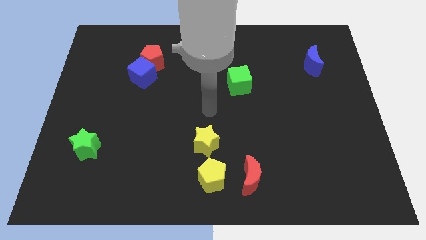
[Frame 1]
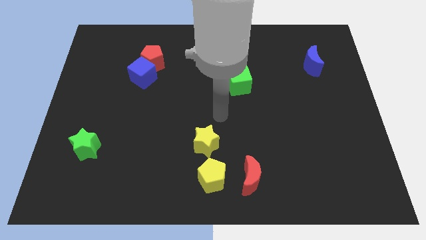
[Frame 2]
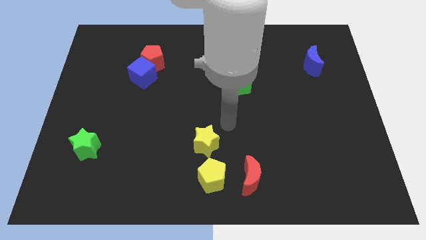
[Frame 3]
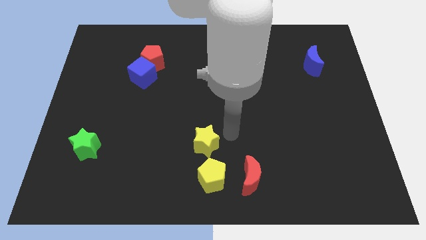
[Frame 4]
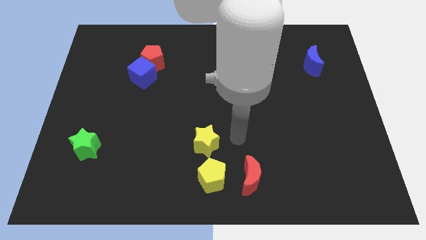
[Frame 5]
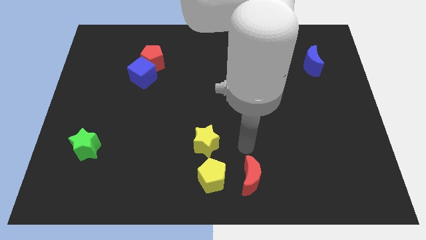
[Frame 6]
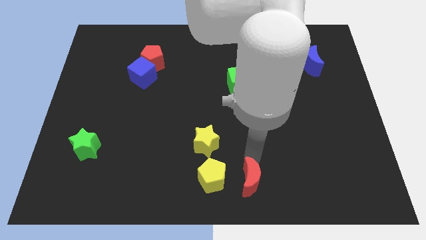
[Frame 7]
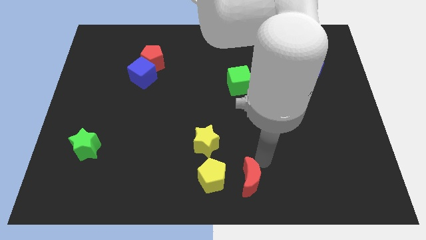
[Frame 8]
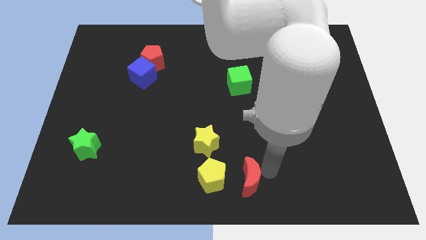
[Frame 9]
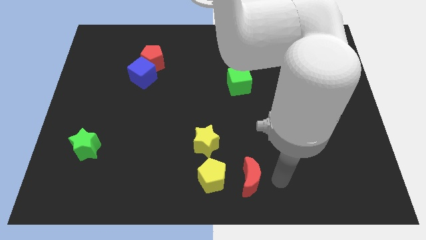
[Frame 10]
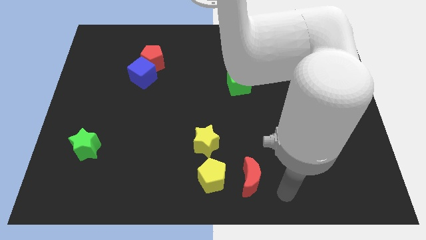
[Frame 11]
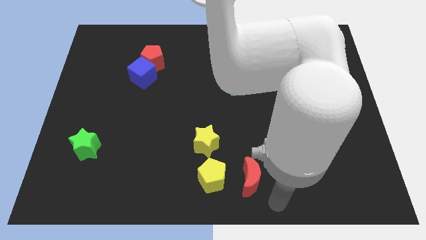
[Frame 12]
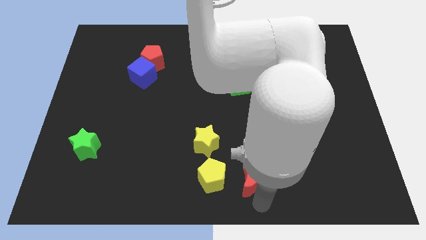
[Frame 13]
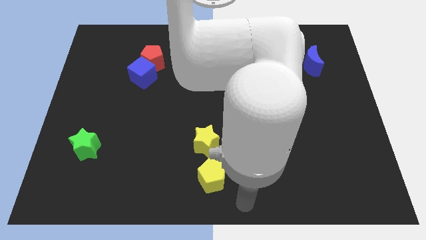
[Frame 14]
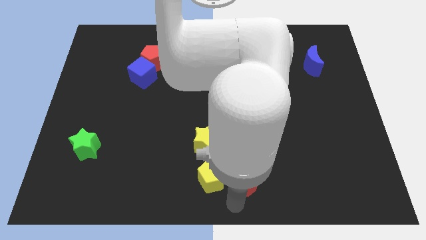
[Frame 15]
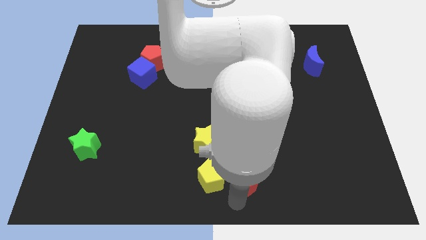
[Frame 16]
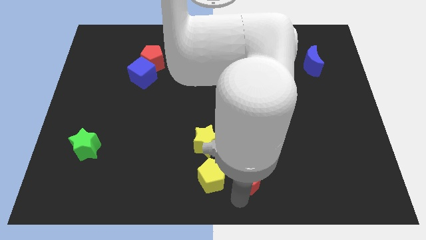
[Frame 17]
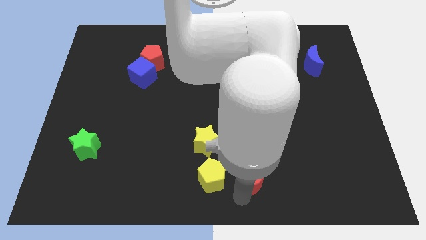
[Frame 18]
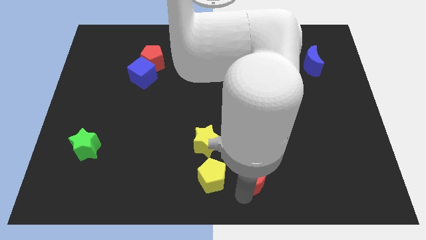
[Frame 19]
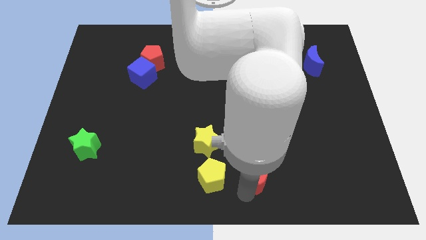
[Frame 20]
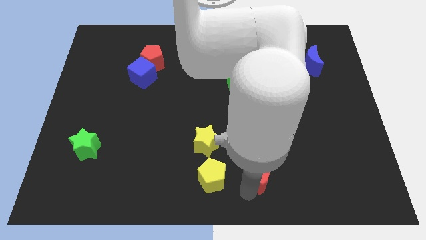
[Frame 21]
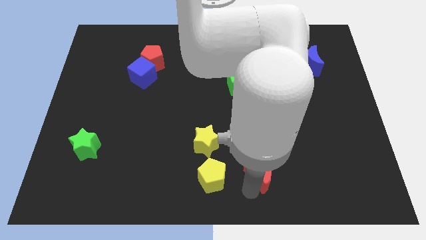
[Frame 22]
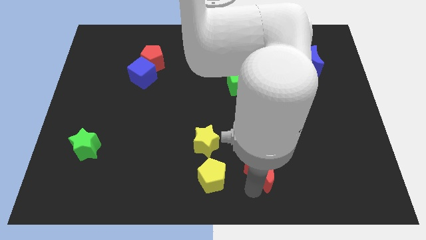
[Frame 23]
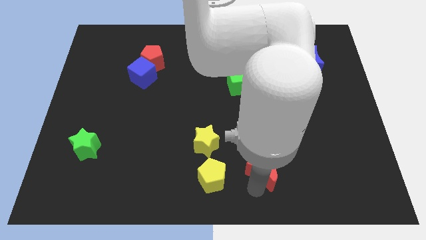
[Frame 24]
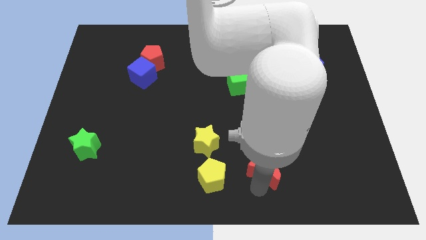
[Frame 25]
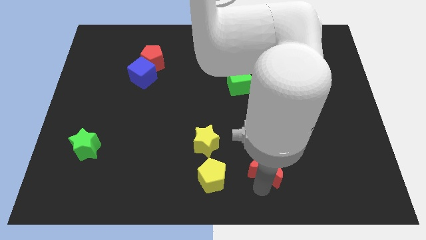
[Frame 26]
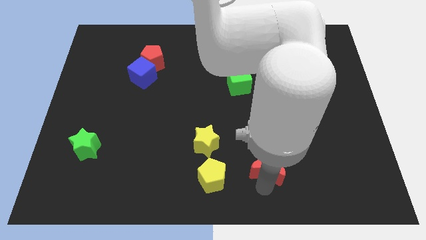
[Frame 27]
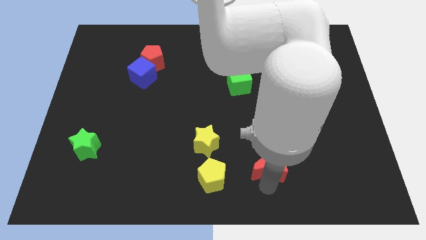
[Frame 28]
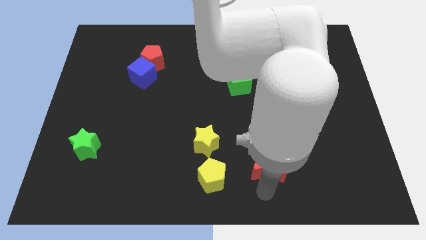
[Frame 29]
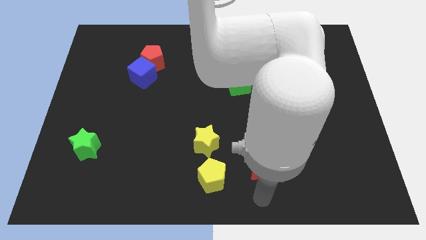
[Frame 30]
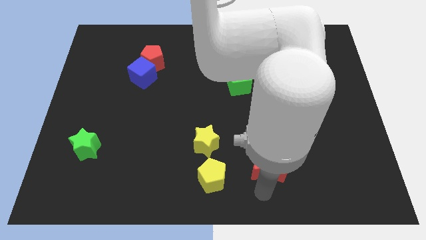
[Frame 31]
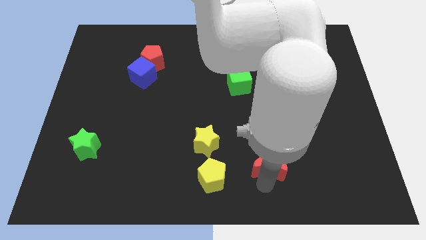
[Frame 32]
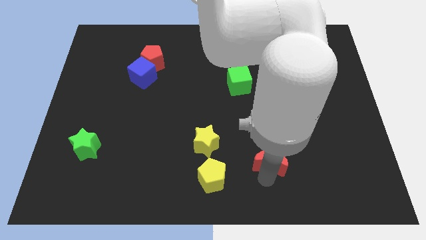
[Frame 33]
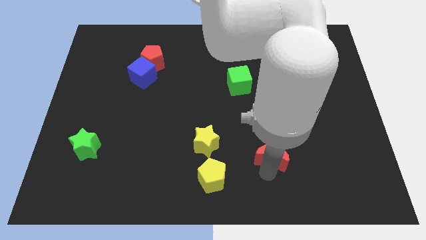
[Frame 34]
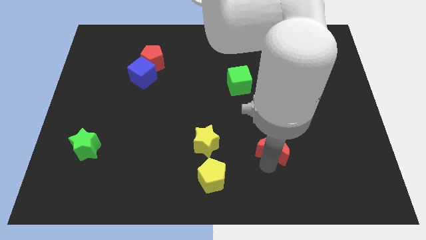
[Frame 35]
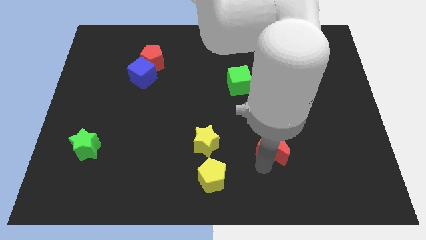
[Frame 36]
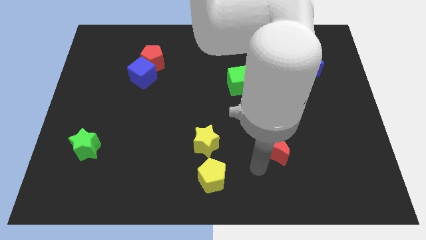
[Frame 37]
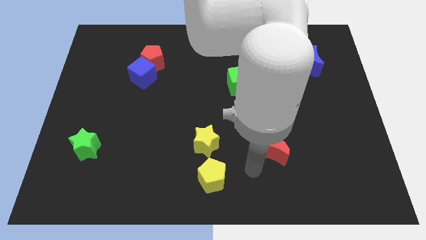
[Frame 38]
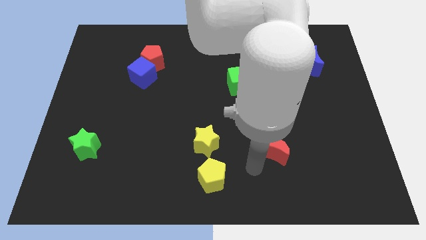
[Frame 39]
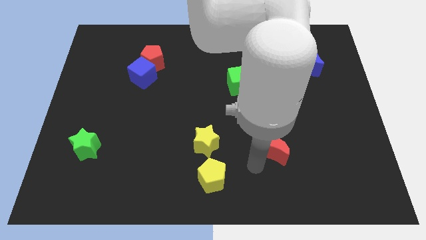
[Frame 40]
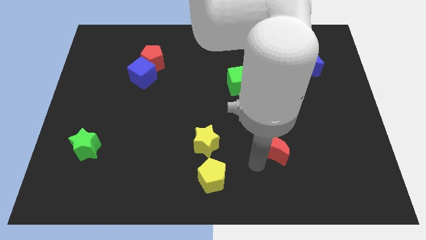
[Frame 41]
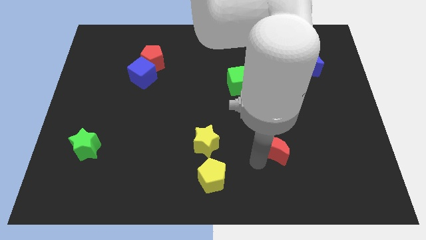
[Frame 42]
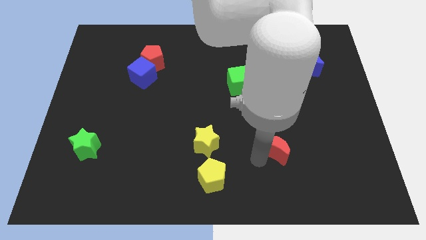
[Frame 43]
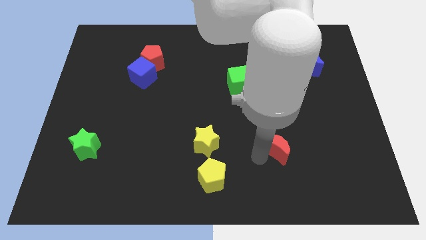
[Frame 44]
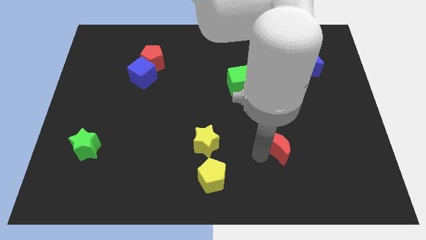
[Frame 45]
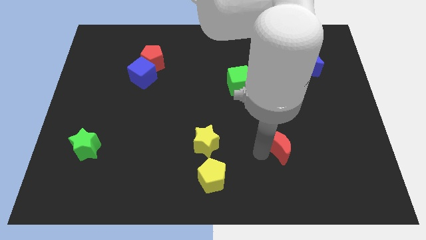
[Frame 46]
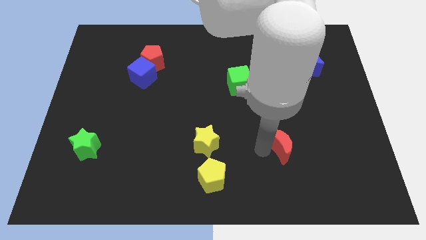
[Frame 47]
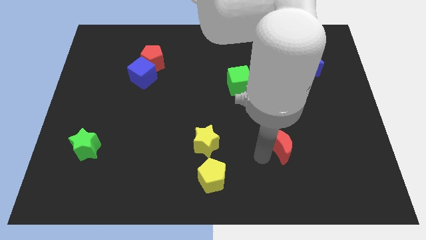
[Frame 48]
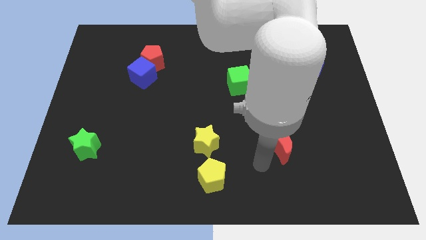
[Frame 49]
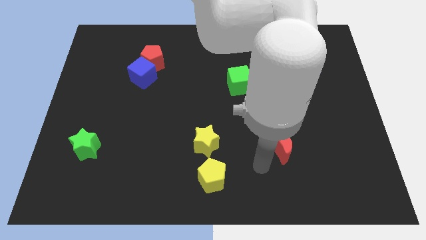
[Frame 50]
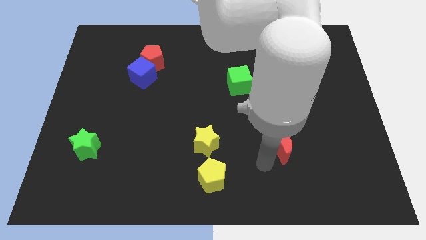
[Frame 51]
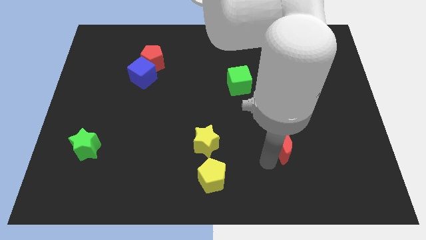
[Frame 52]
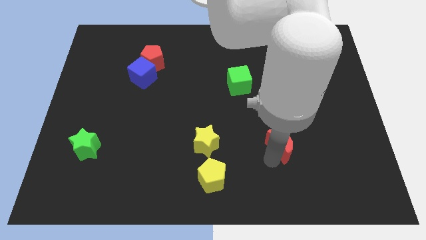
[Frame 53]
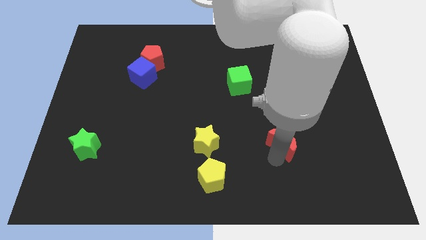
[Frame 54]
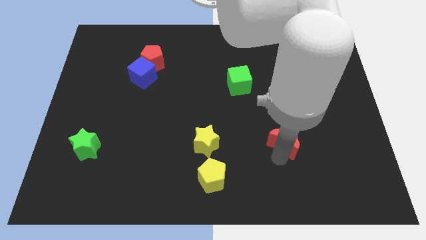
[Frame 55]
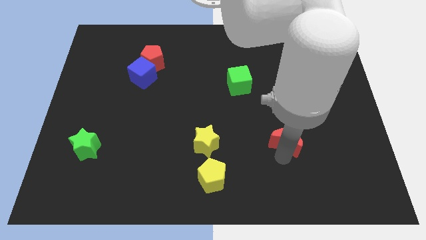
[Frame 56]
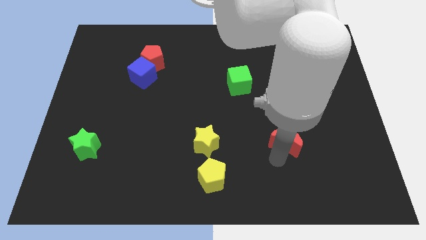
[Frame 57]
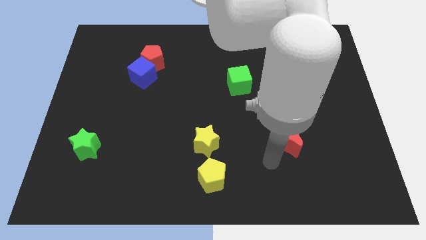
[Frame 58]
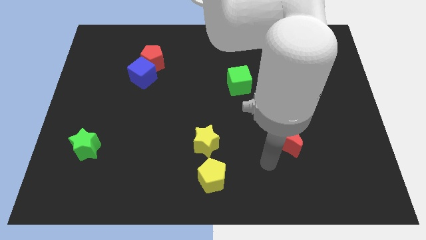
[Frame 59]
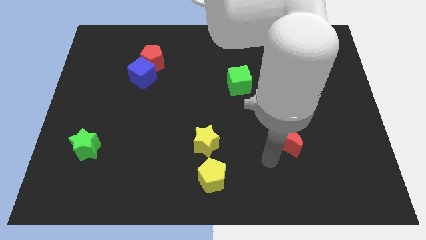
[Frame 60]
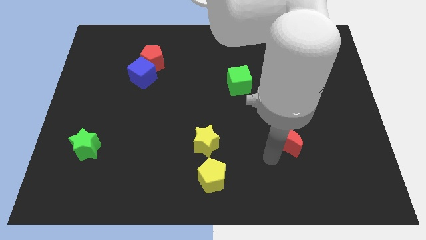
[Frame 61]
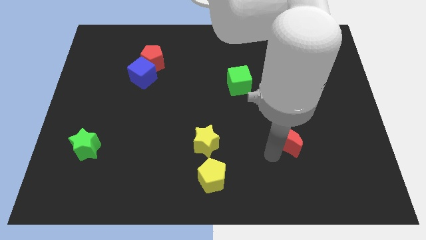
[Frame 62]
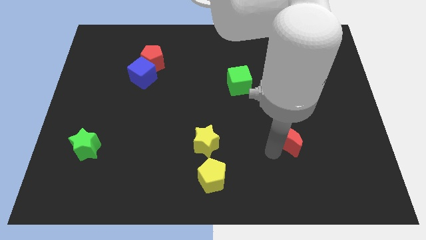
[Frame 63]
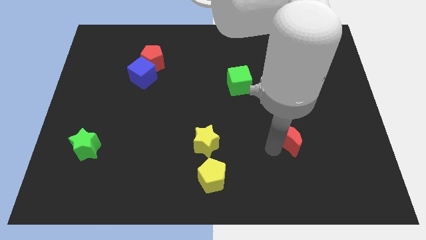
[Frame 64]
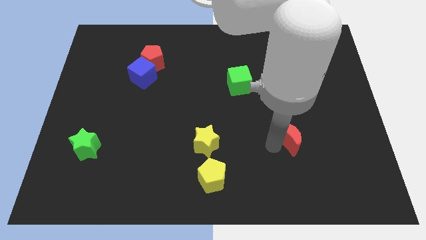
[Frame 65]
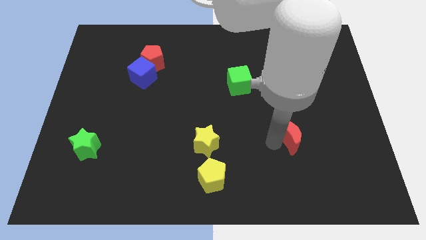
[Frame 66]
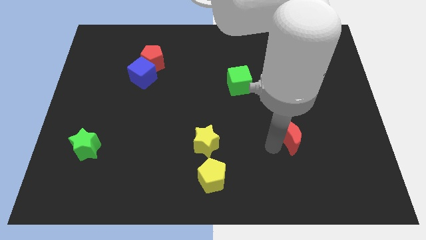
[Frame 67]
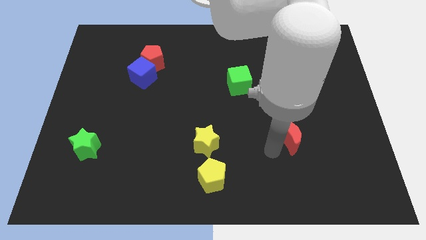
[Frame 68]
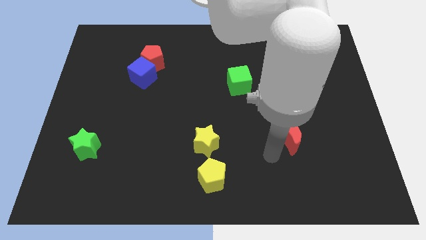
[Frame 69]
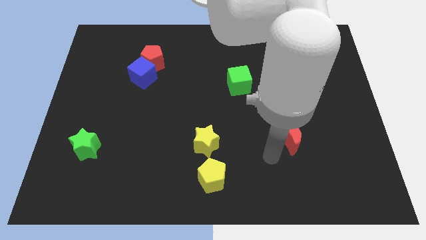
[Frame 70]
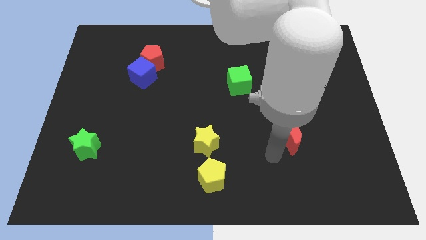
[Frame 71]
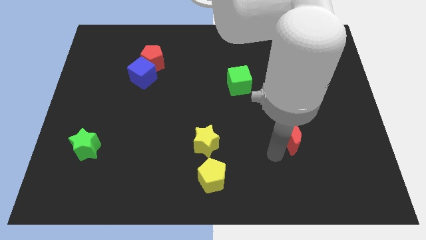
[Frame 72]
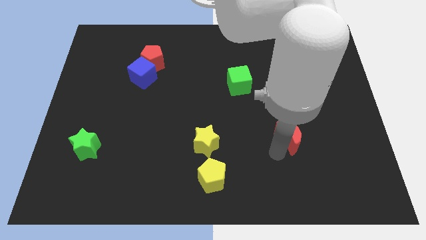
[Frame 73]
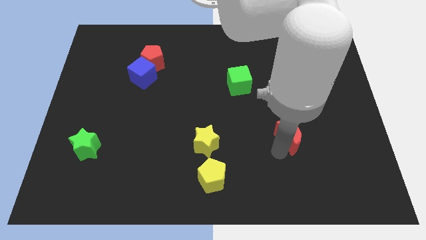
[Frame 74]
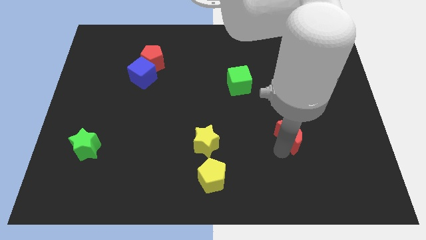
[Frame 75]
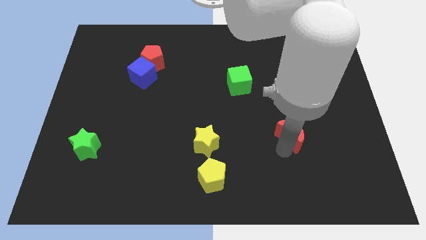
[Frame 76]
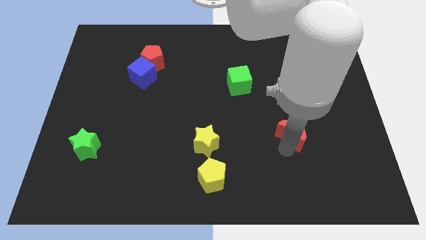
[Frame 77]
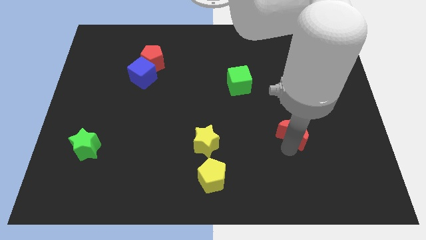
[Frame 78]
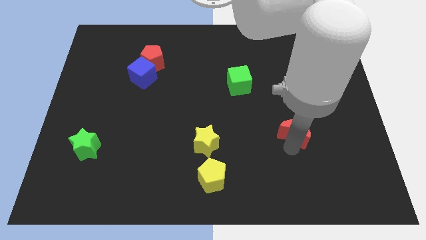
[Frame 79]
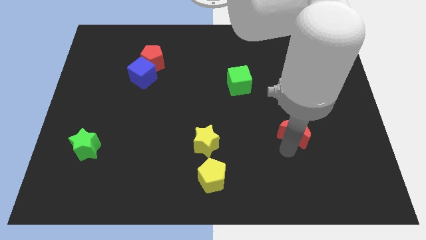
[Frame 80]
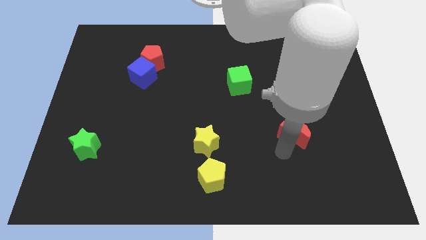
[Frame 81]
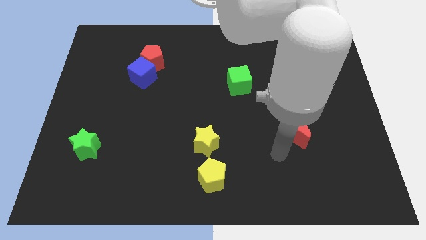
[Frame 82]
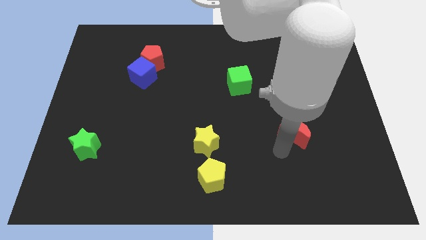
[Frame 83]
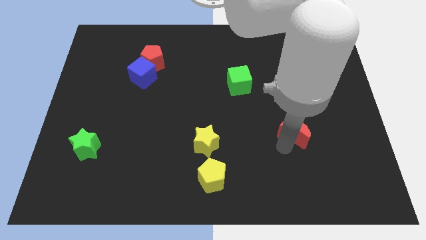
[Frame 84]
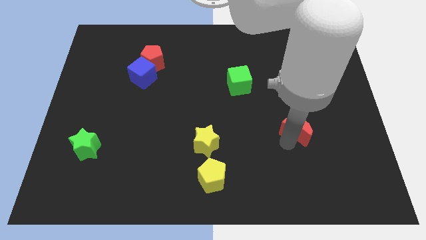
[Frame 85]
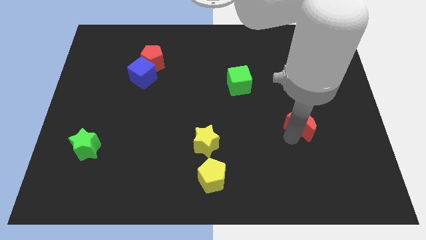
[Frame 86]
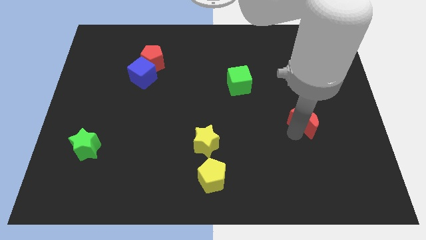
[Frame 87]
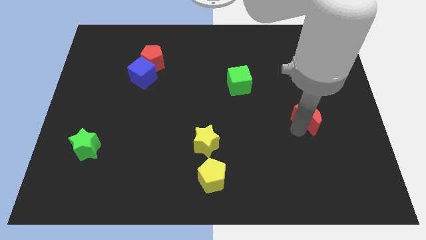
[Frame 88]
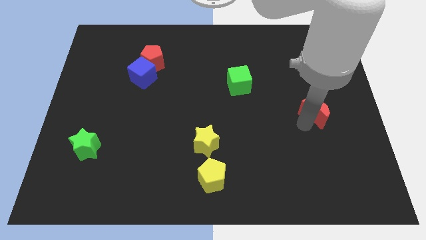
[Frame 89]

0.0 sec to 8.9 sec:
push the red moon to the bottom side of the blue moon
